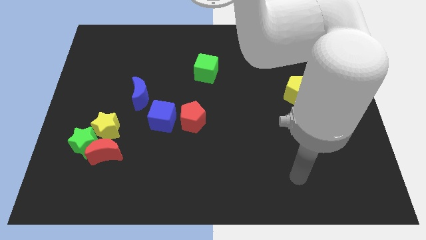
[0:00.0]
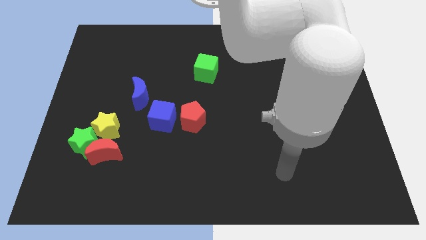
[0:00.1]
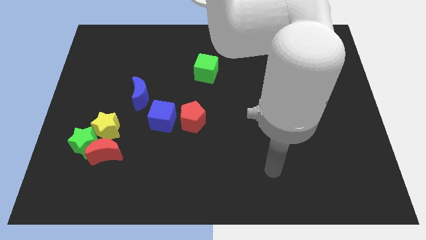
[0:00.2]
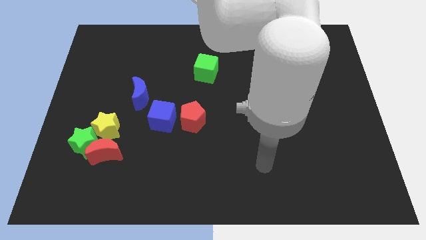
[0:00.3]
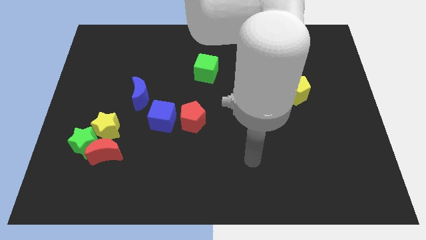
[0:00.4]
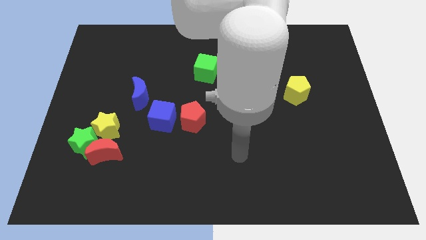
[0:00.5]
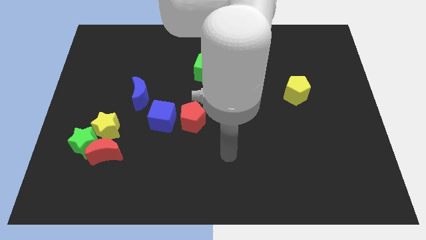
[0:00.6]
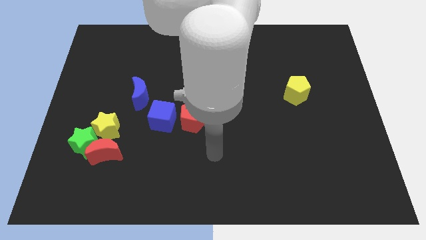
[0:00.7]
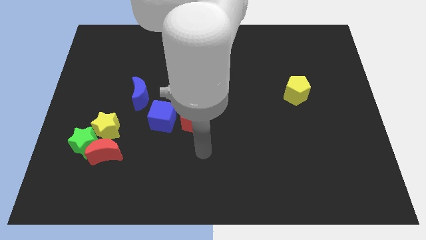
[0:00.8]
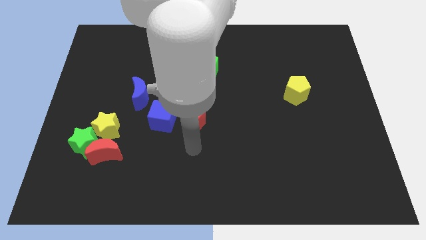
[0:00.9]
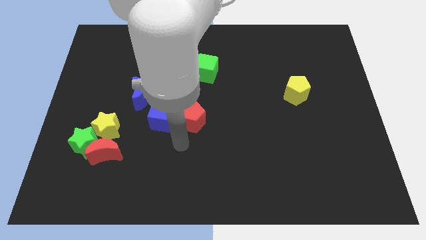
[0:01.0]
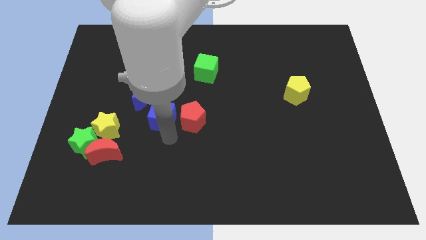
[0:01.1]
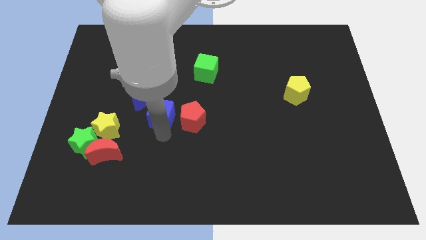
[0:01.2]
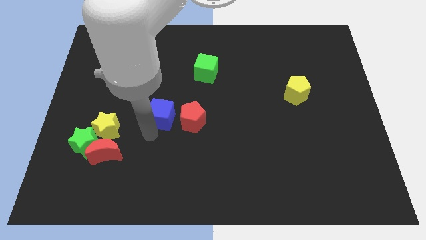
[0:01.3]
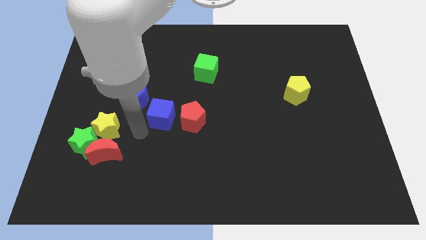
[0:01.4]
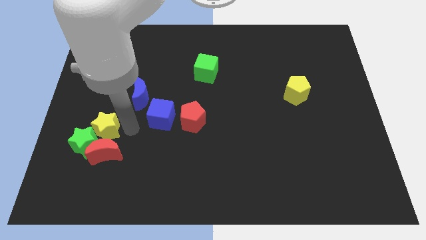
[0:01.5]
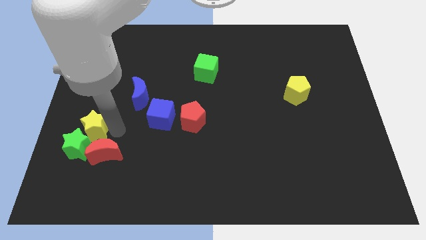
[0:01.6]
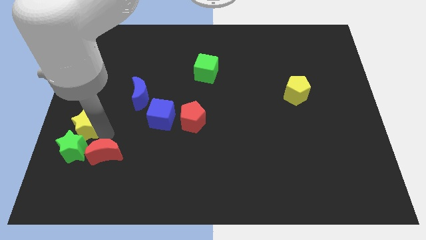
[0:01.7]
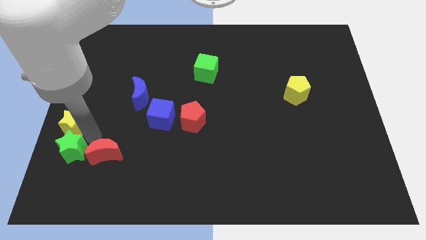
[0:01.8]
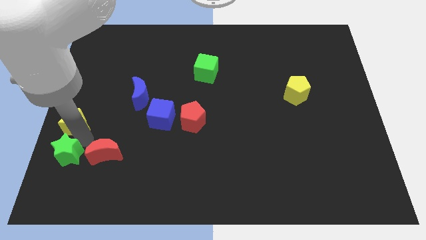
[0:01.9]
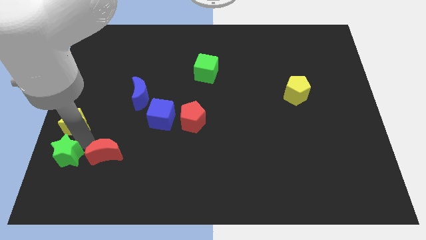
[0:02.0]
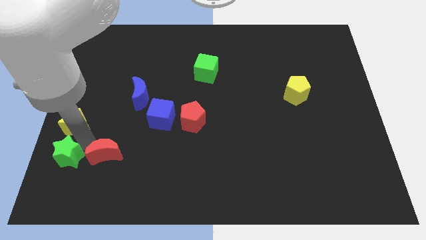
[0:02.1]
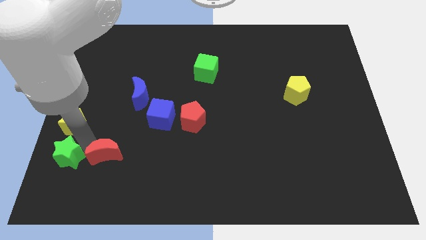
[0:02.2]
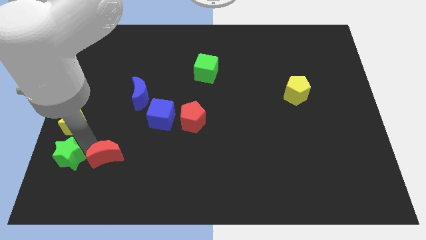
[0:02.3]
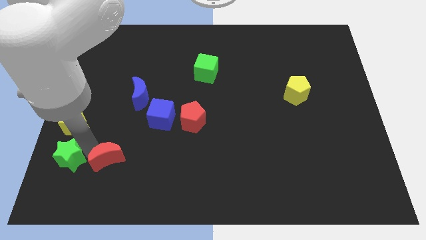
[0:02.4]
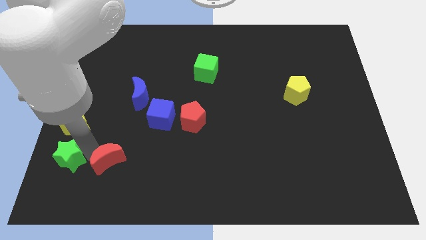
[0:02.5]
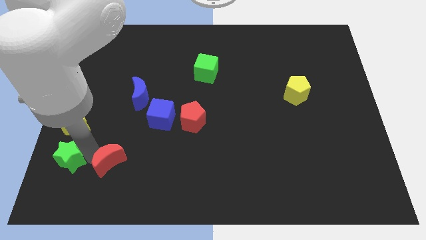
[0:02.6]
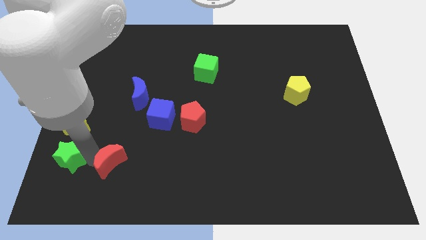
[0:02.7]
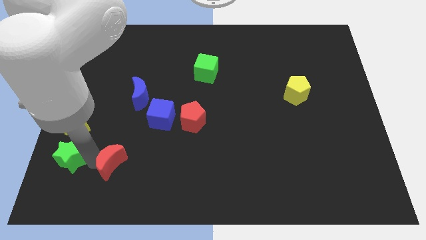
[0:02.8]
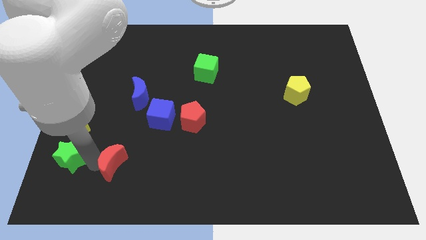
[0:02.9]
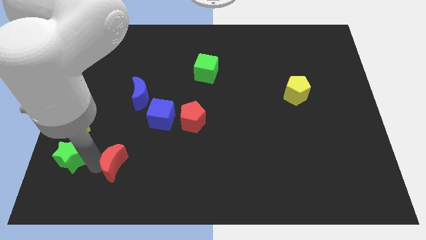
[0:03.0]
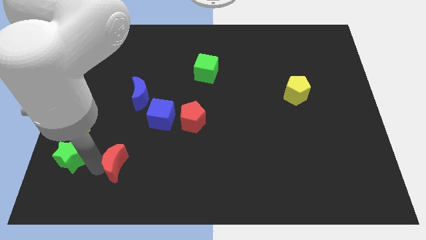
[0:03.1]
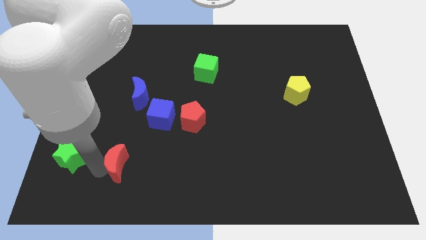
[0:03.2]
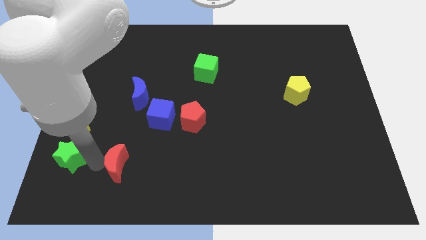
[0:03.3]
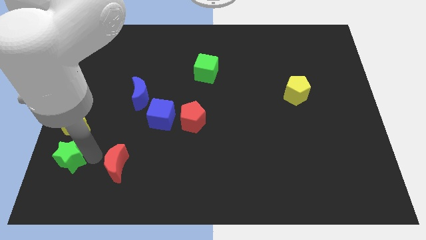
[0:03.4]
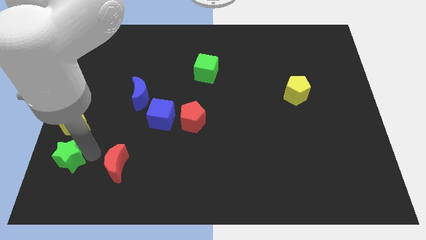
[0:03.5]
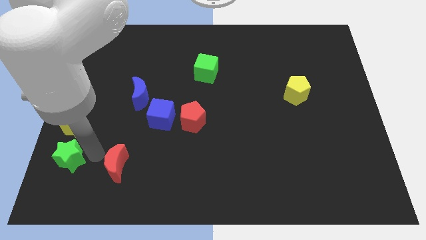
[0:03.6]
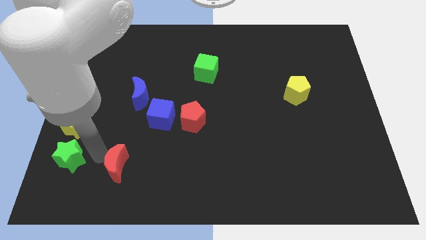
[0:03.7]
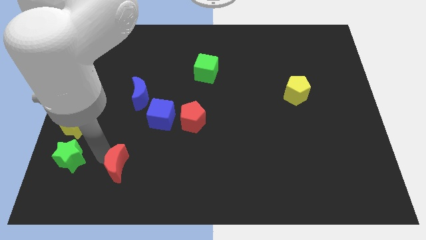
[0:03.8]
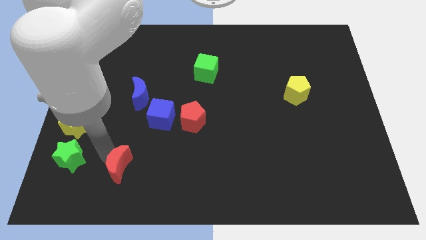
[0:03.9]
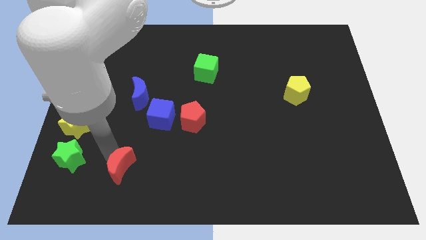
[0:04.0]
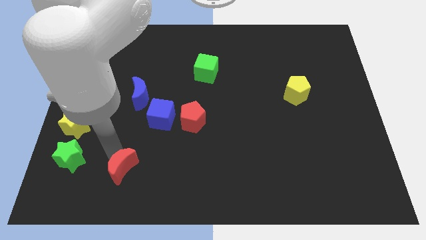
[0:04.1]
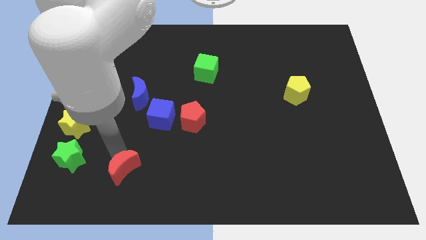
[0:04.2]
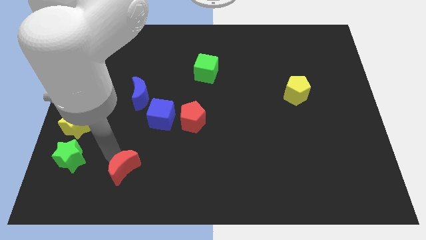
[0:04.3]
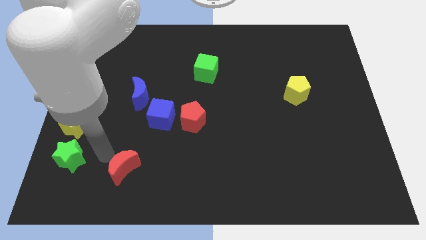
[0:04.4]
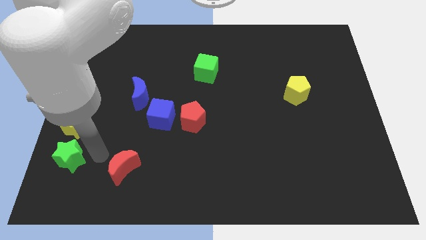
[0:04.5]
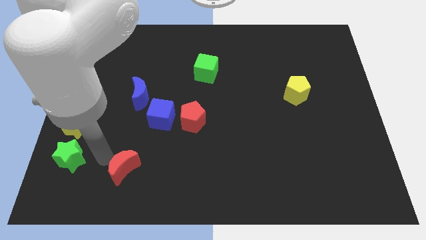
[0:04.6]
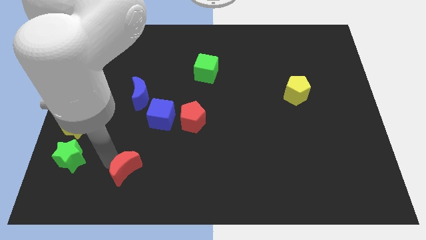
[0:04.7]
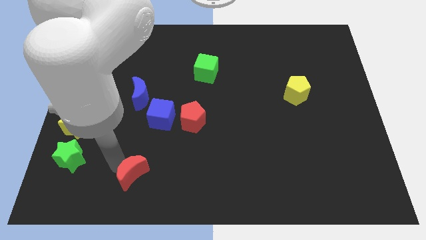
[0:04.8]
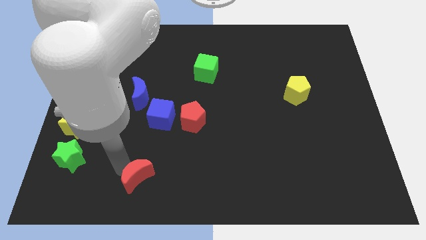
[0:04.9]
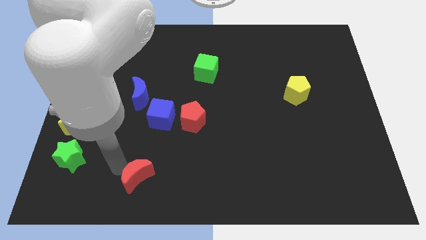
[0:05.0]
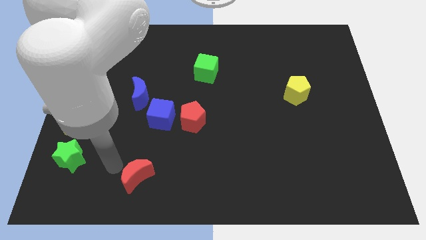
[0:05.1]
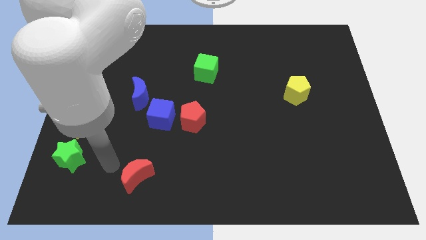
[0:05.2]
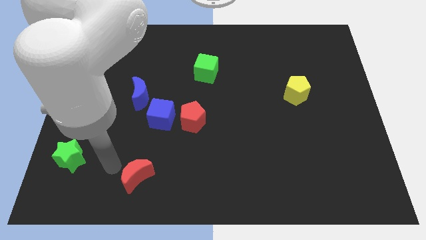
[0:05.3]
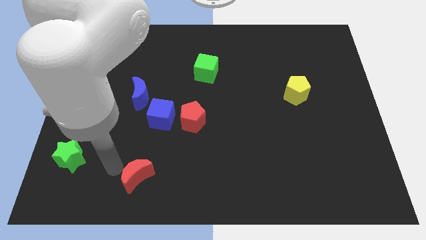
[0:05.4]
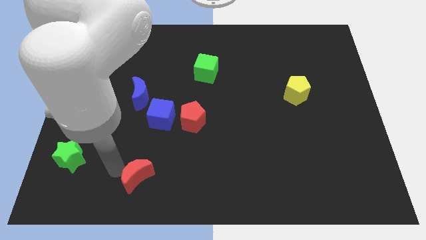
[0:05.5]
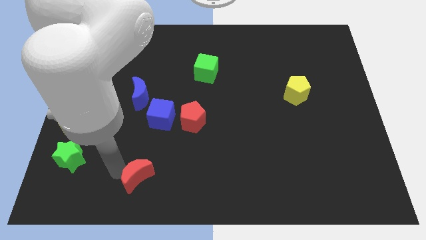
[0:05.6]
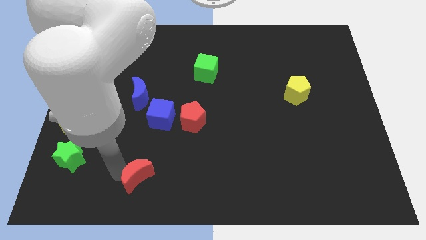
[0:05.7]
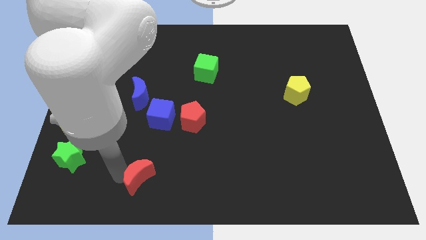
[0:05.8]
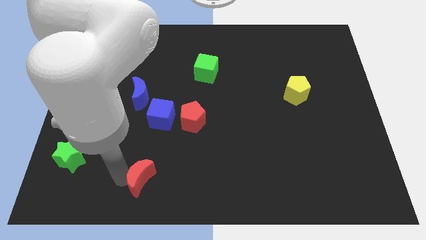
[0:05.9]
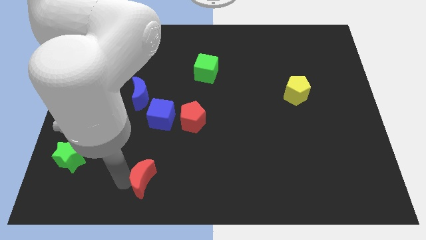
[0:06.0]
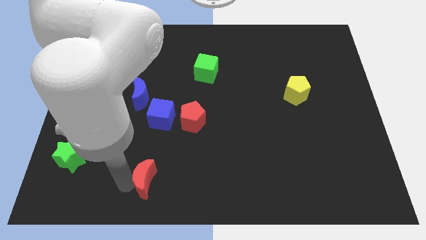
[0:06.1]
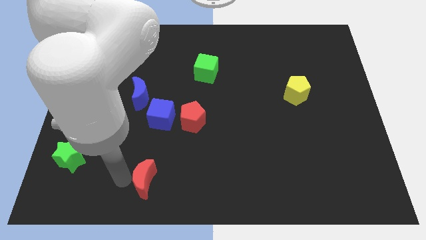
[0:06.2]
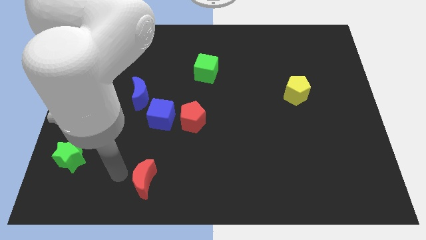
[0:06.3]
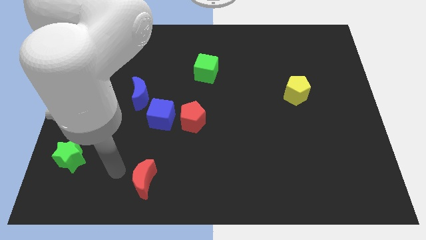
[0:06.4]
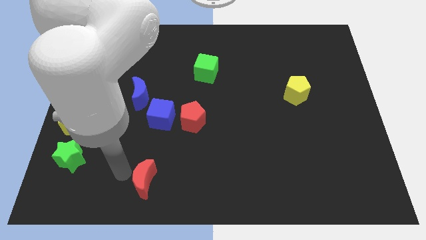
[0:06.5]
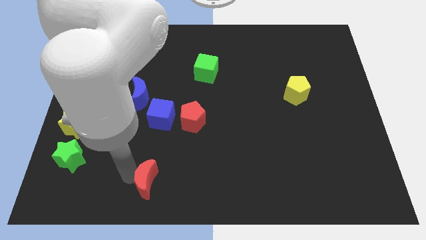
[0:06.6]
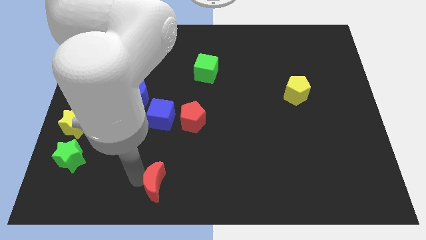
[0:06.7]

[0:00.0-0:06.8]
slide the red moon to the bottom
